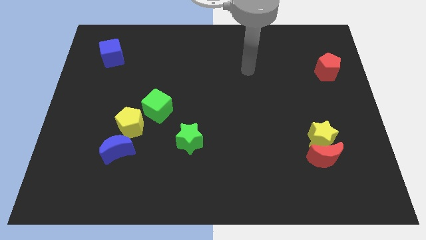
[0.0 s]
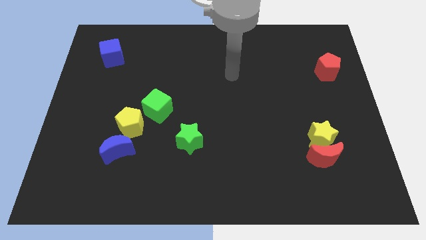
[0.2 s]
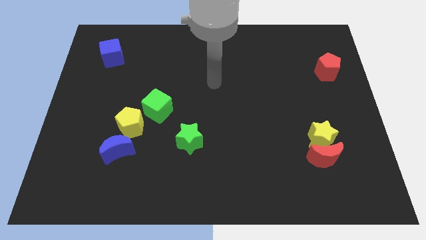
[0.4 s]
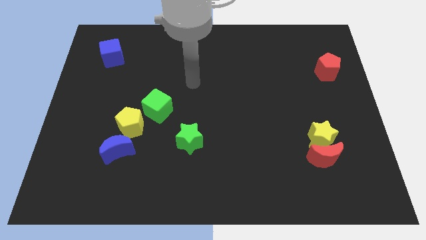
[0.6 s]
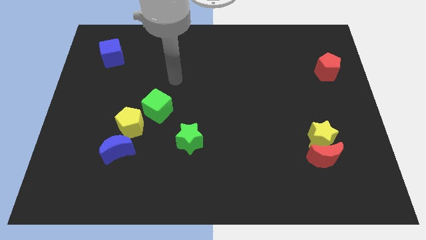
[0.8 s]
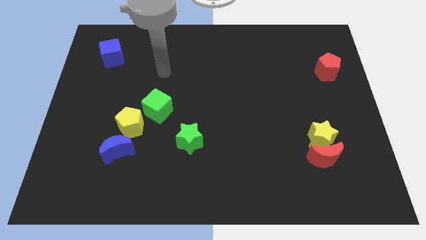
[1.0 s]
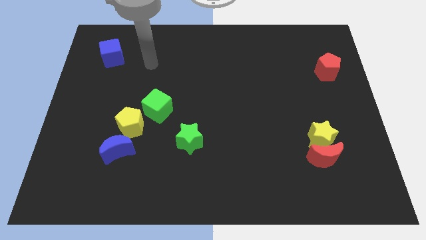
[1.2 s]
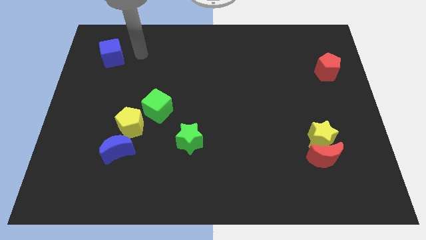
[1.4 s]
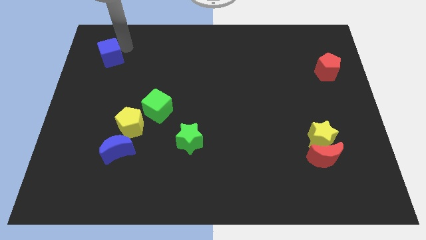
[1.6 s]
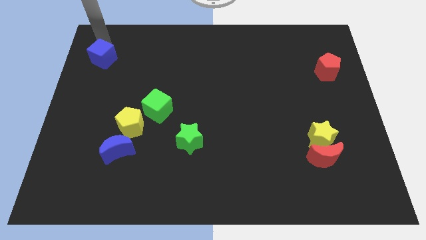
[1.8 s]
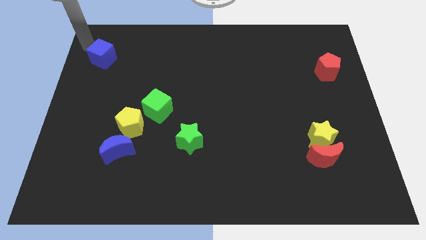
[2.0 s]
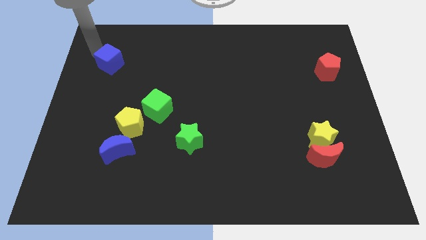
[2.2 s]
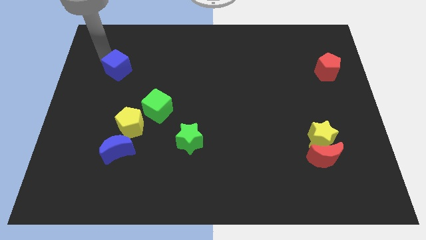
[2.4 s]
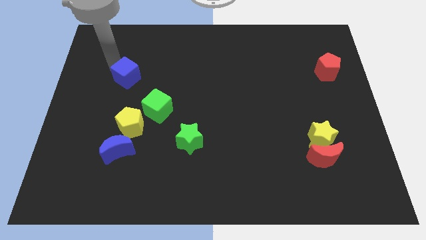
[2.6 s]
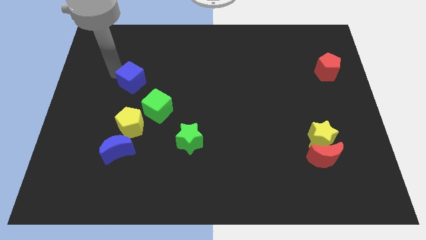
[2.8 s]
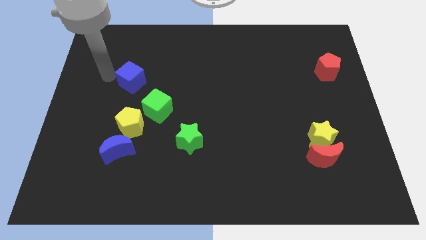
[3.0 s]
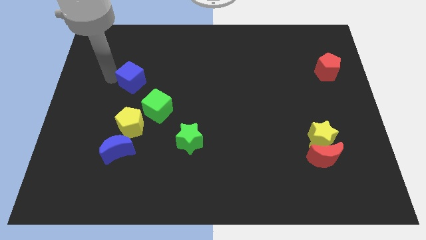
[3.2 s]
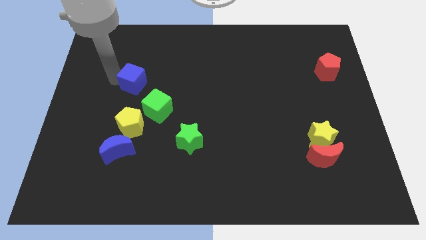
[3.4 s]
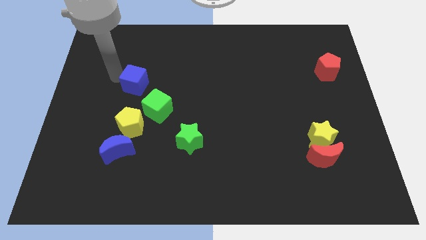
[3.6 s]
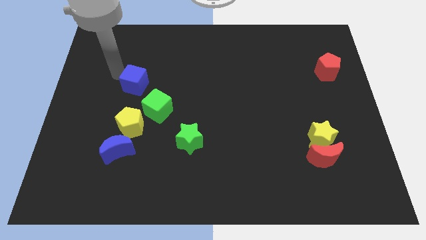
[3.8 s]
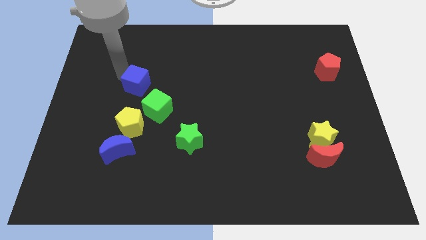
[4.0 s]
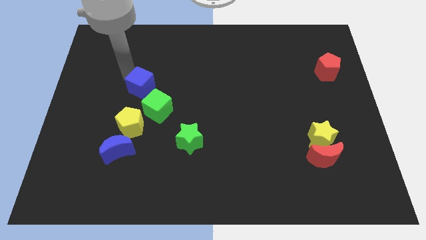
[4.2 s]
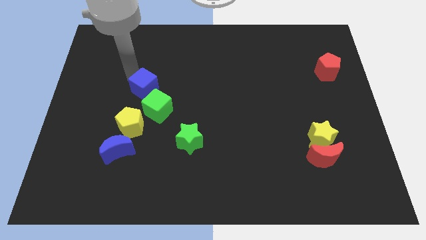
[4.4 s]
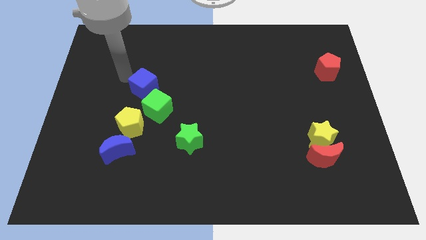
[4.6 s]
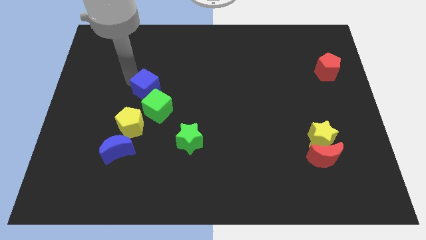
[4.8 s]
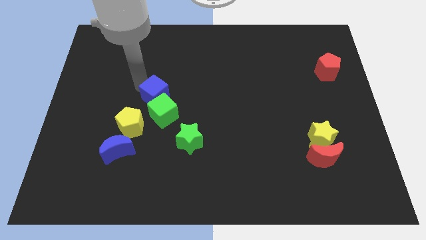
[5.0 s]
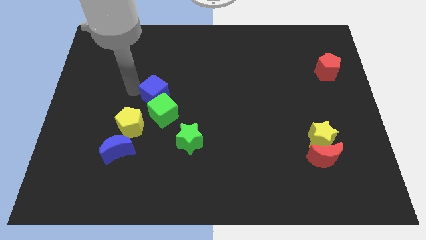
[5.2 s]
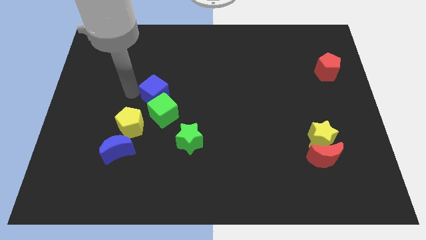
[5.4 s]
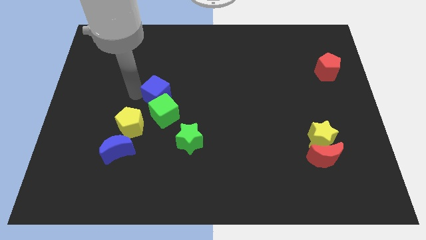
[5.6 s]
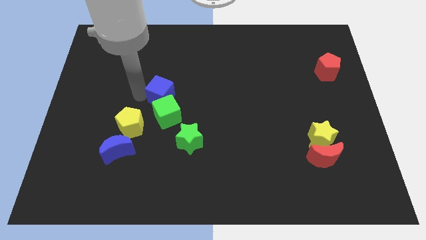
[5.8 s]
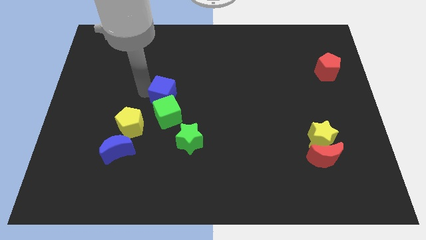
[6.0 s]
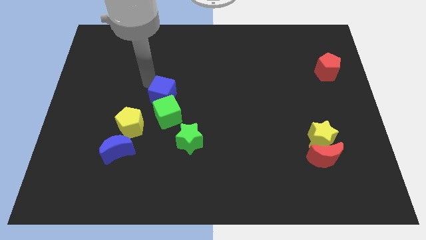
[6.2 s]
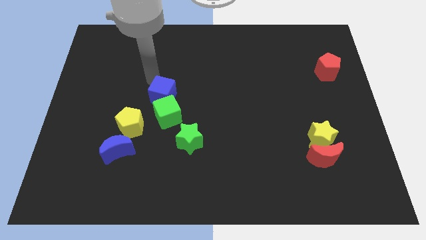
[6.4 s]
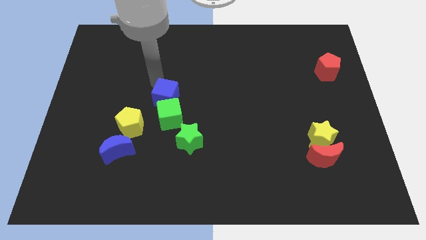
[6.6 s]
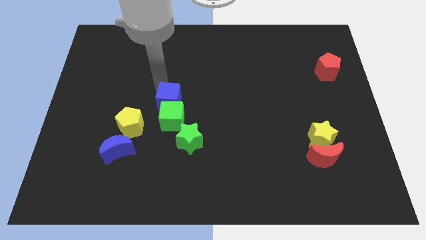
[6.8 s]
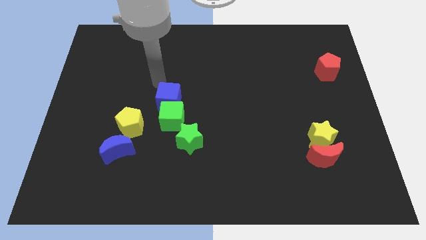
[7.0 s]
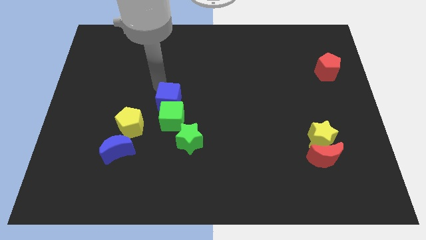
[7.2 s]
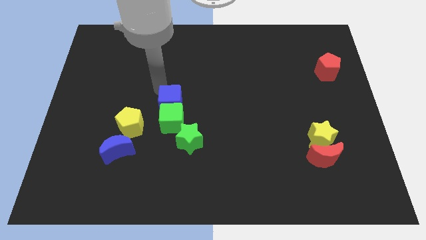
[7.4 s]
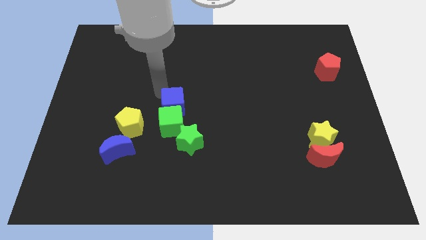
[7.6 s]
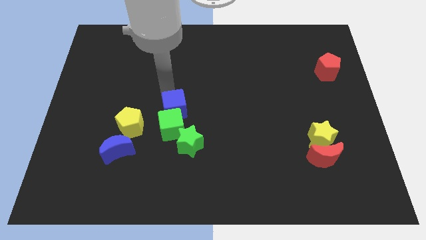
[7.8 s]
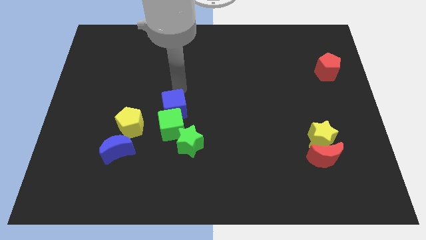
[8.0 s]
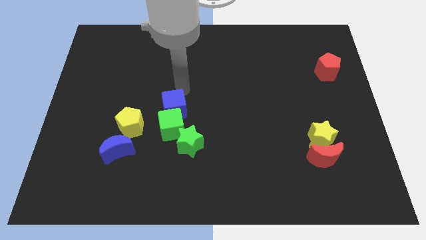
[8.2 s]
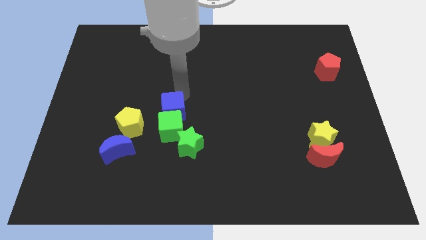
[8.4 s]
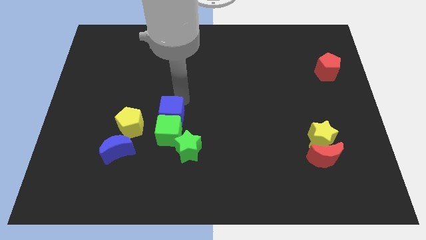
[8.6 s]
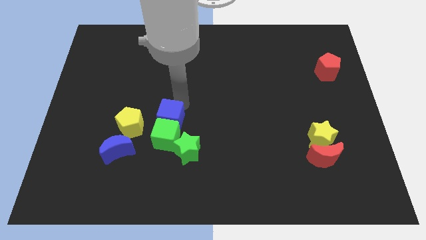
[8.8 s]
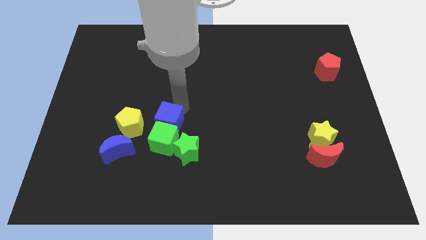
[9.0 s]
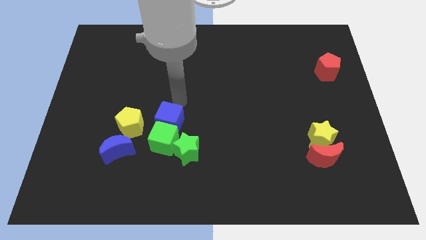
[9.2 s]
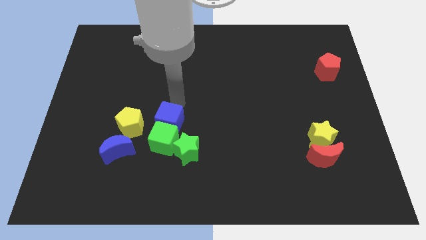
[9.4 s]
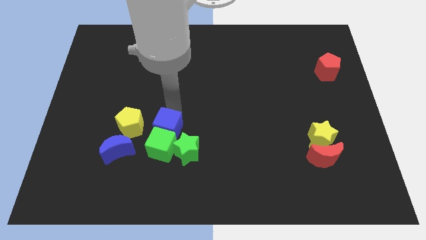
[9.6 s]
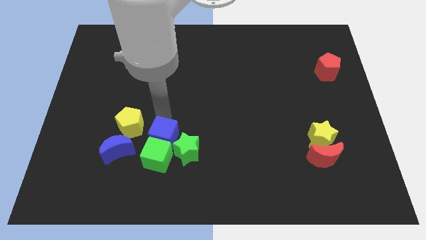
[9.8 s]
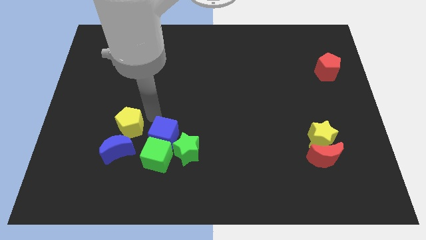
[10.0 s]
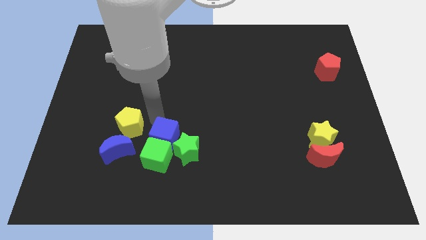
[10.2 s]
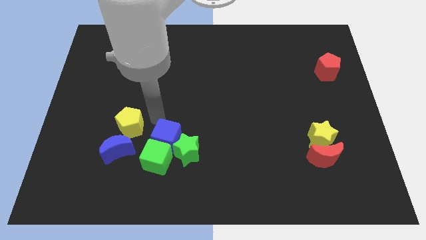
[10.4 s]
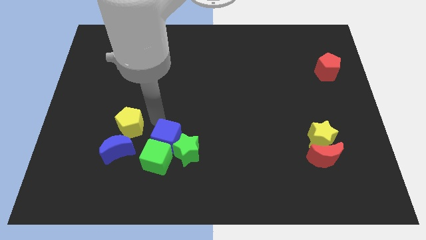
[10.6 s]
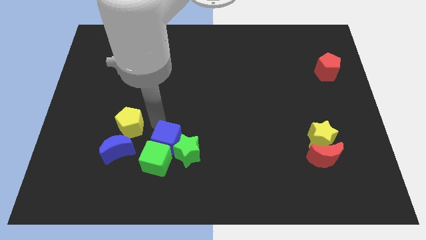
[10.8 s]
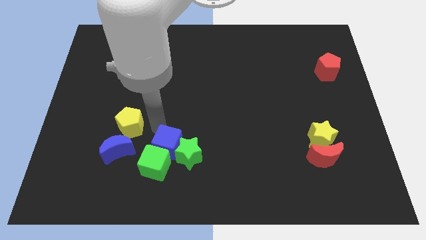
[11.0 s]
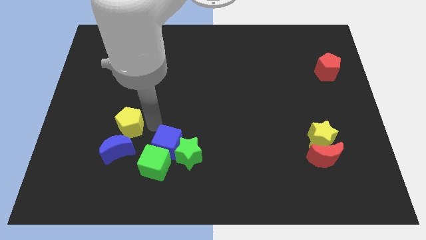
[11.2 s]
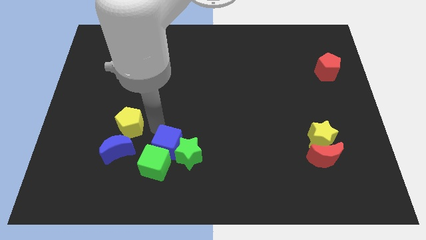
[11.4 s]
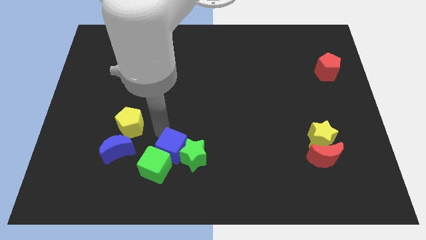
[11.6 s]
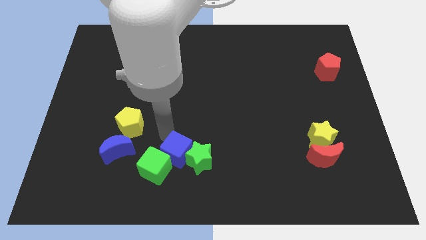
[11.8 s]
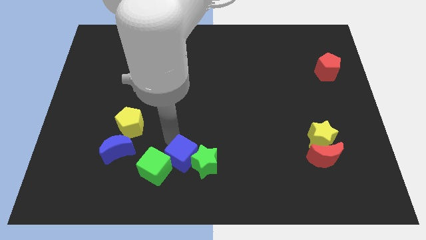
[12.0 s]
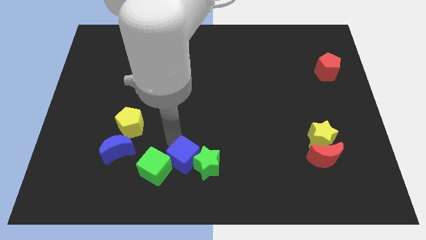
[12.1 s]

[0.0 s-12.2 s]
push the blue cube to the bottom
